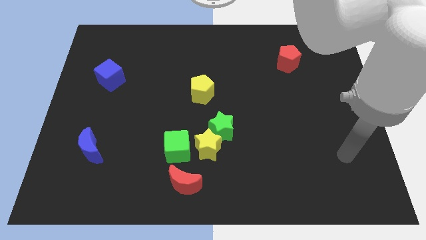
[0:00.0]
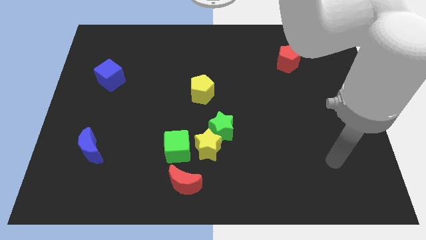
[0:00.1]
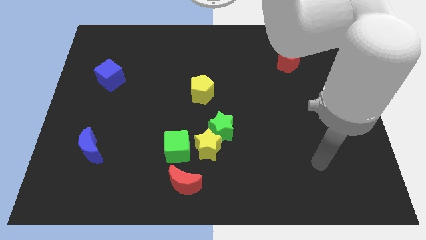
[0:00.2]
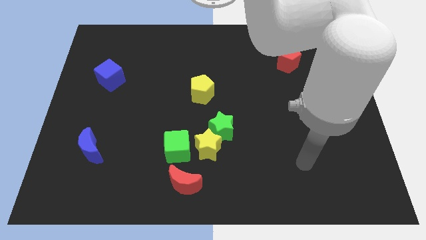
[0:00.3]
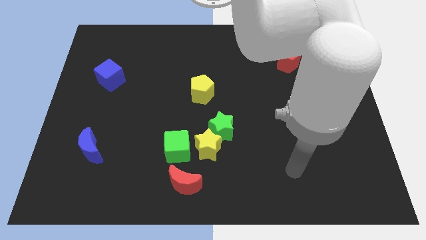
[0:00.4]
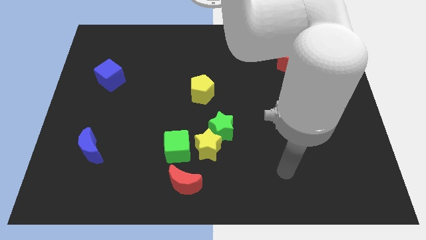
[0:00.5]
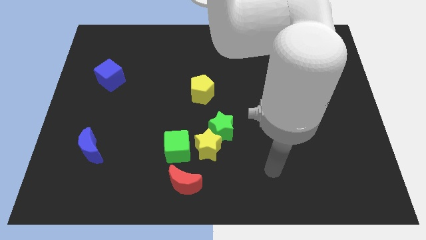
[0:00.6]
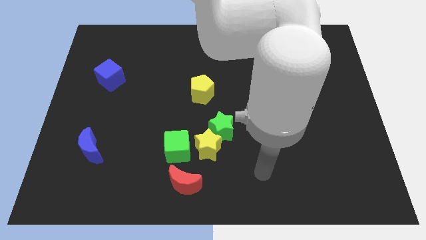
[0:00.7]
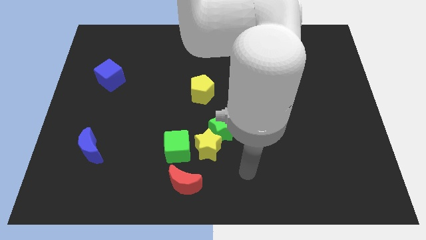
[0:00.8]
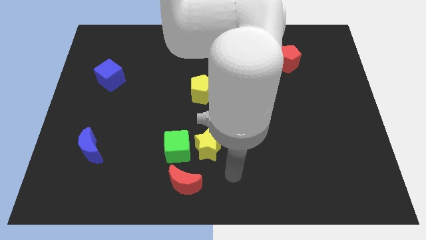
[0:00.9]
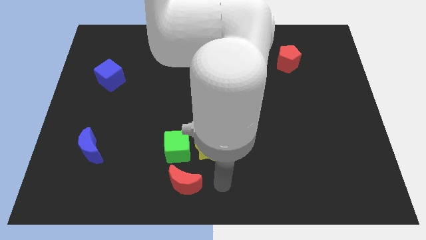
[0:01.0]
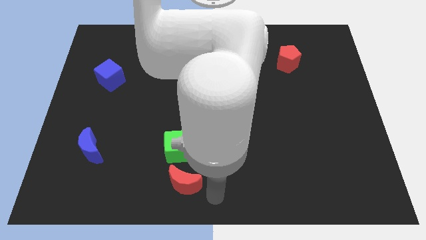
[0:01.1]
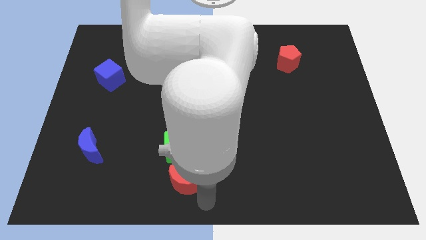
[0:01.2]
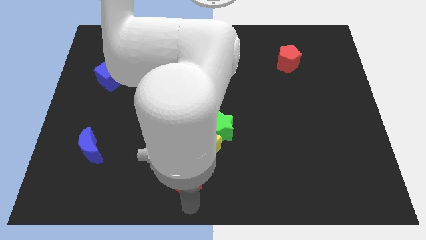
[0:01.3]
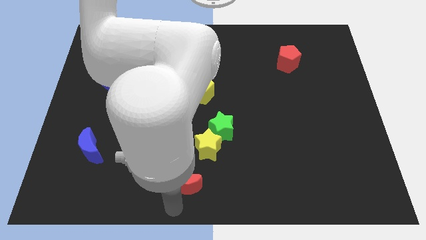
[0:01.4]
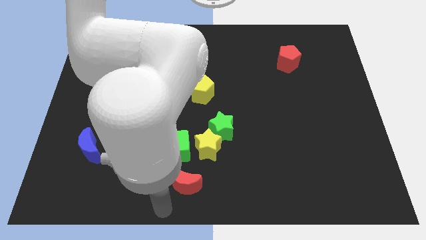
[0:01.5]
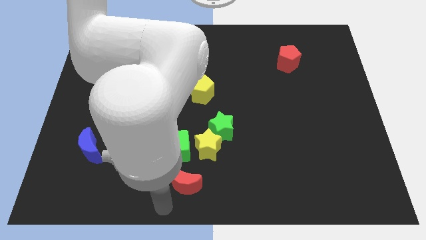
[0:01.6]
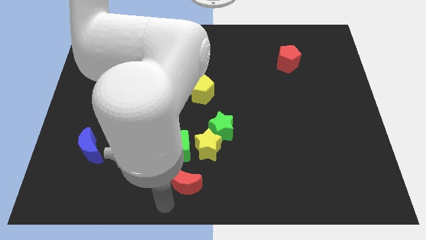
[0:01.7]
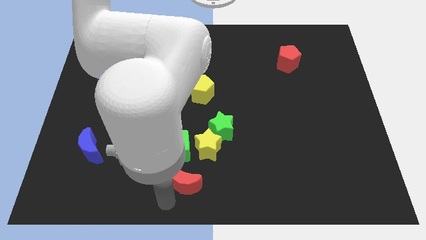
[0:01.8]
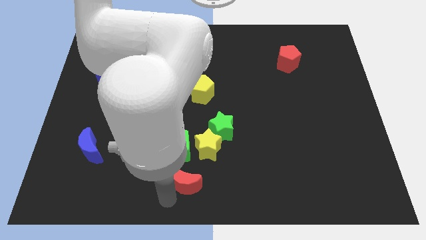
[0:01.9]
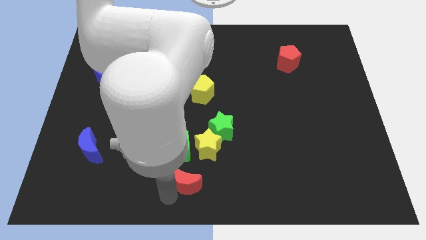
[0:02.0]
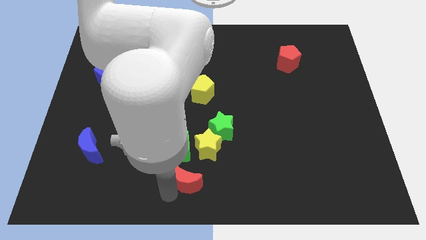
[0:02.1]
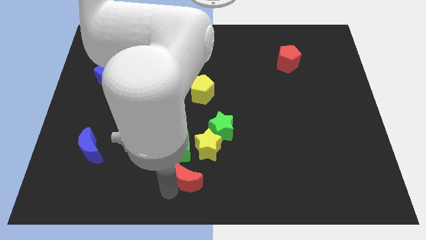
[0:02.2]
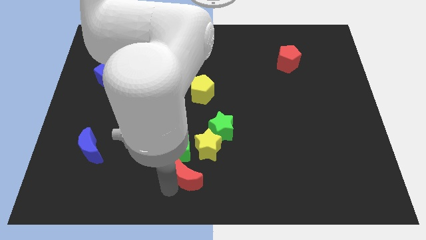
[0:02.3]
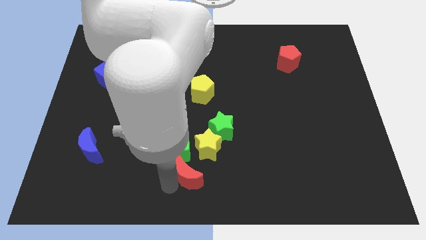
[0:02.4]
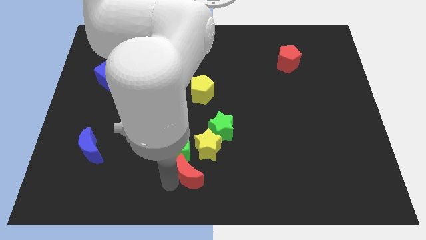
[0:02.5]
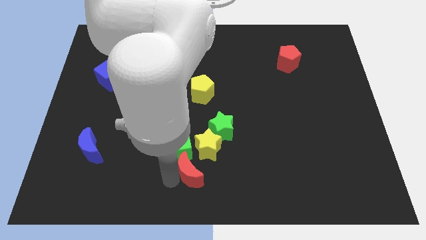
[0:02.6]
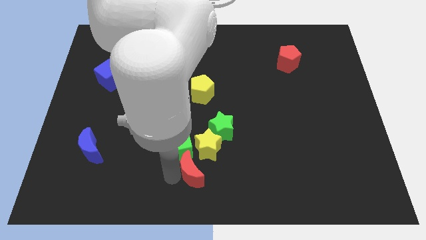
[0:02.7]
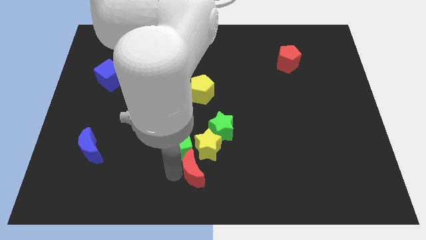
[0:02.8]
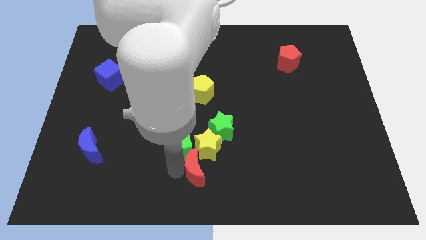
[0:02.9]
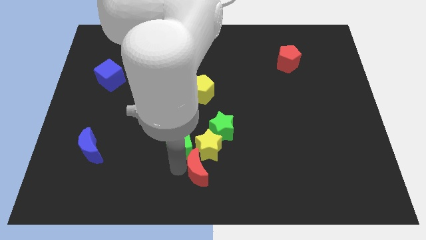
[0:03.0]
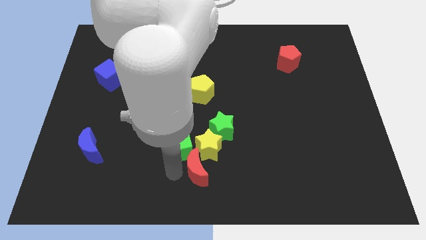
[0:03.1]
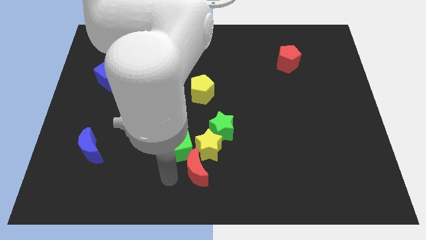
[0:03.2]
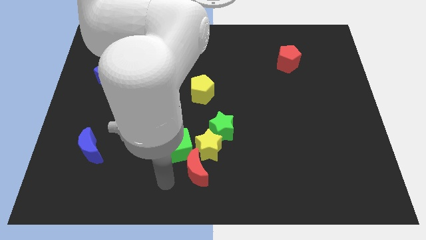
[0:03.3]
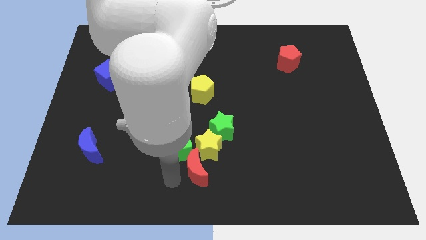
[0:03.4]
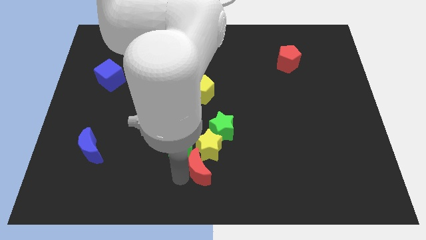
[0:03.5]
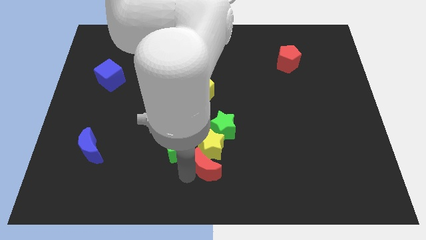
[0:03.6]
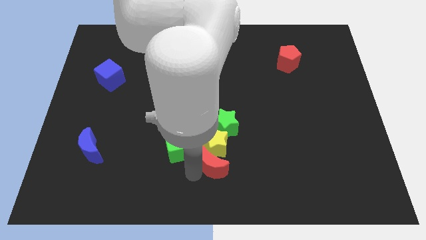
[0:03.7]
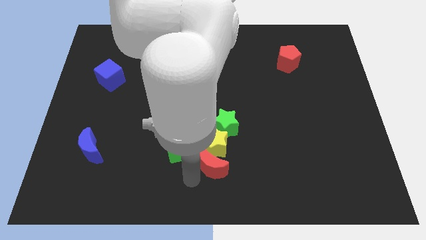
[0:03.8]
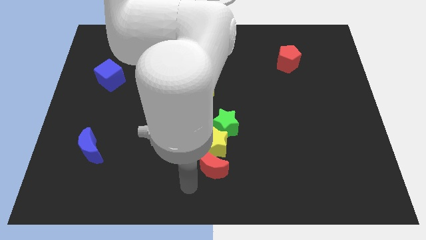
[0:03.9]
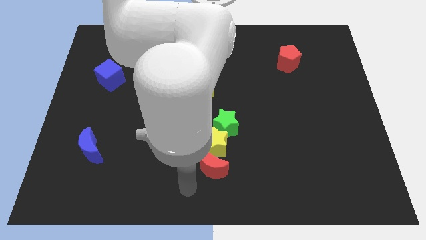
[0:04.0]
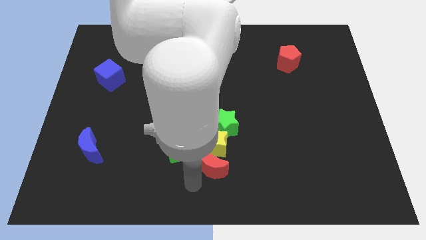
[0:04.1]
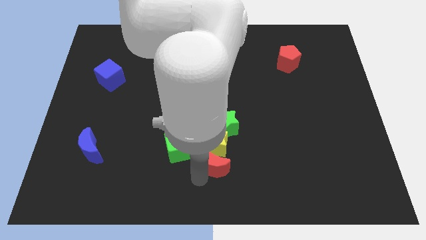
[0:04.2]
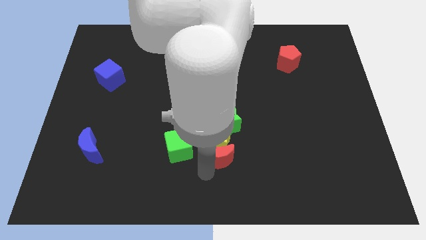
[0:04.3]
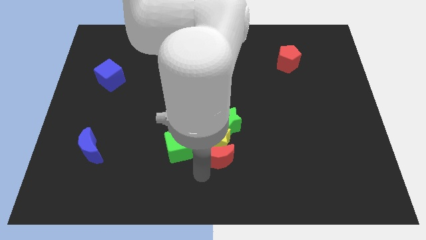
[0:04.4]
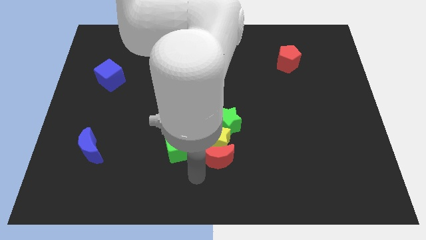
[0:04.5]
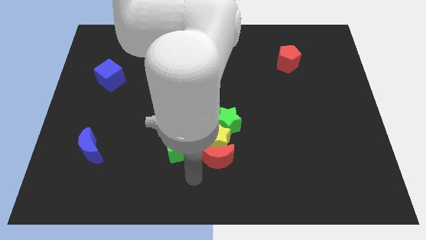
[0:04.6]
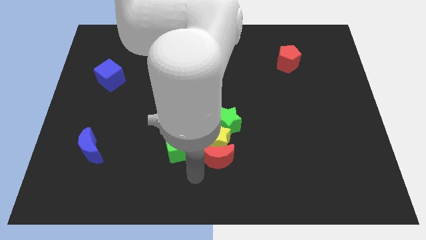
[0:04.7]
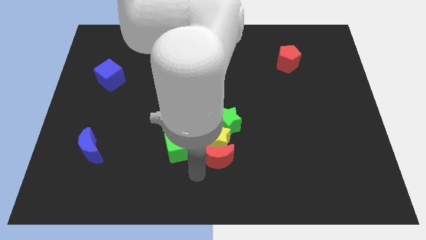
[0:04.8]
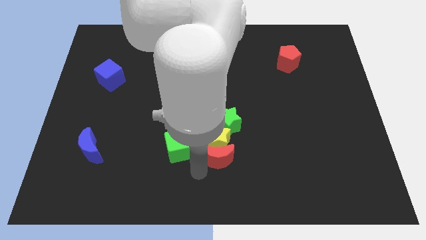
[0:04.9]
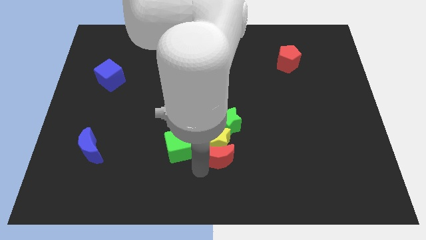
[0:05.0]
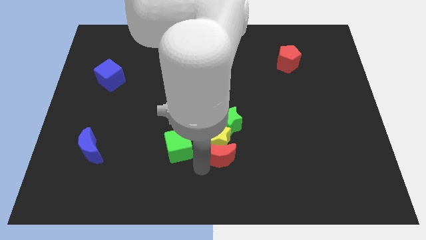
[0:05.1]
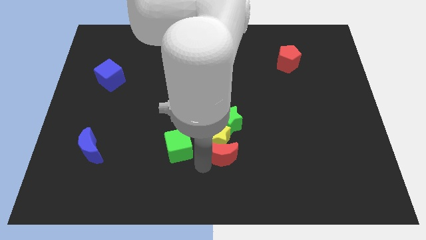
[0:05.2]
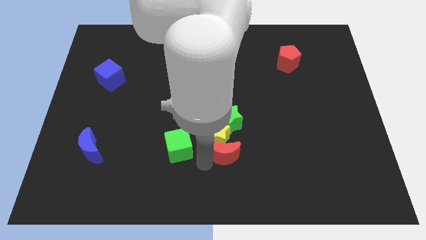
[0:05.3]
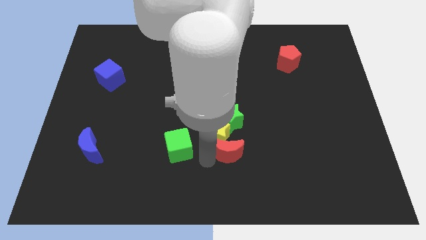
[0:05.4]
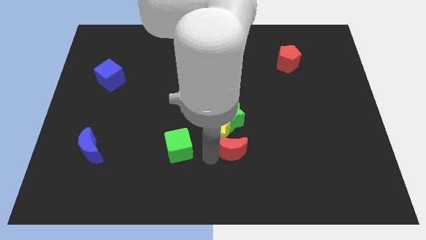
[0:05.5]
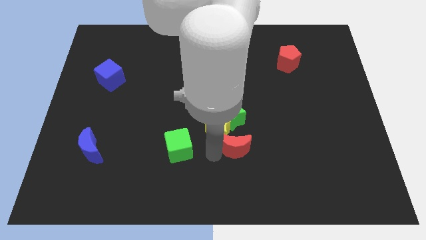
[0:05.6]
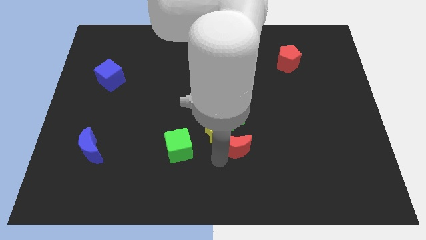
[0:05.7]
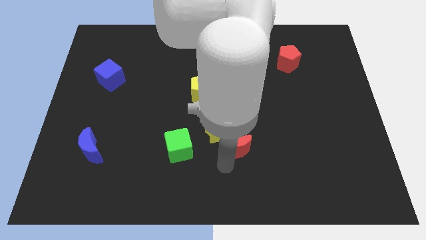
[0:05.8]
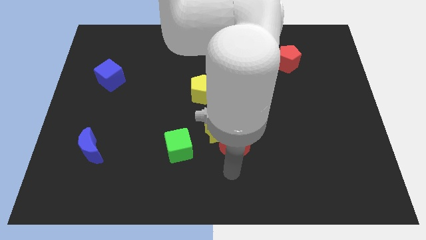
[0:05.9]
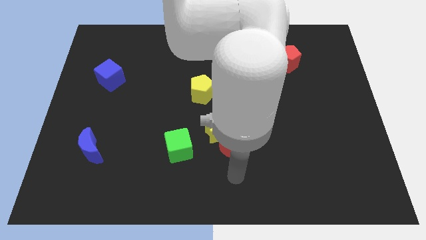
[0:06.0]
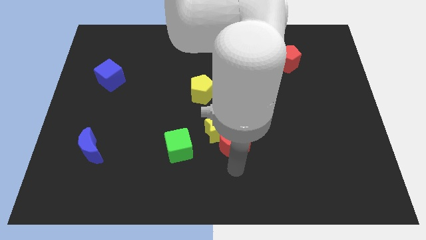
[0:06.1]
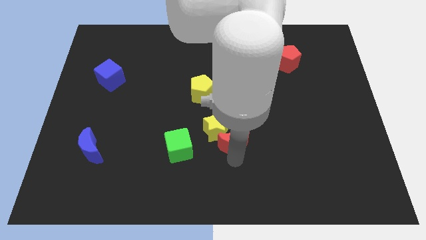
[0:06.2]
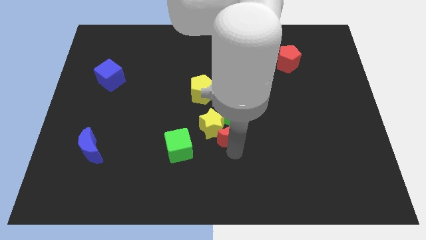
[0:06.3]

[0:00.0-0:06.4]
put the red moon next to the green star
